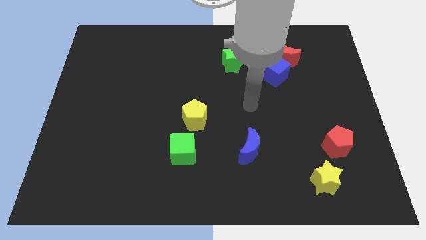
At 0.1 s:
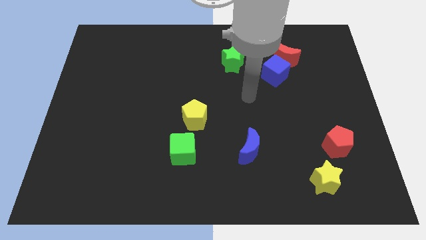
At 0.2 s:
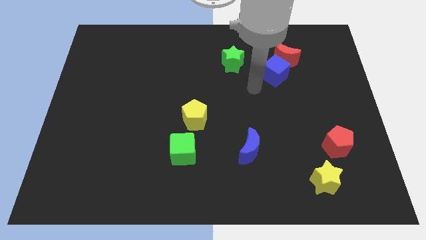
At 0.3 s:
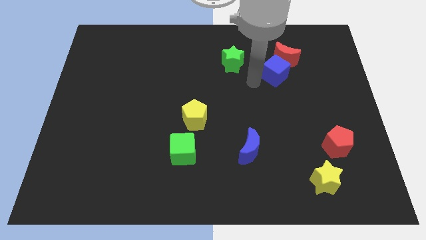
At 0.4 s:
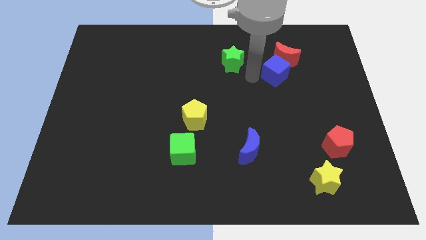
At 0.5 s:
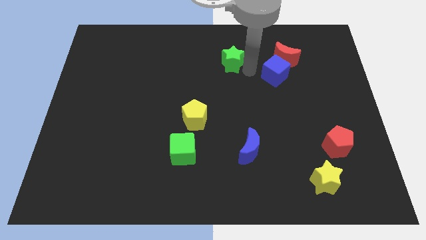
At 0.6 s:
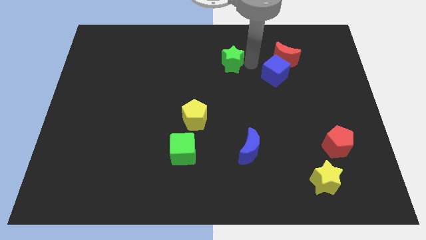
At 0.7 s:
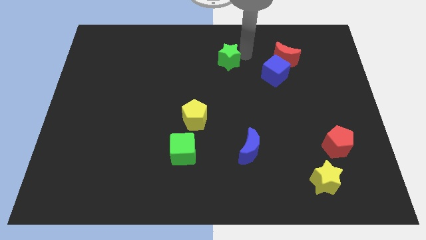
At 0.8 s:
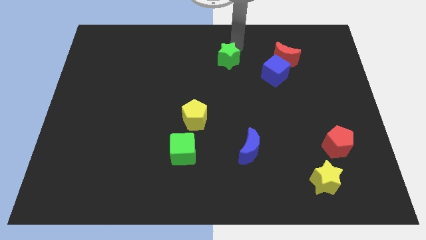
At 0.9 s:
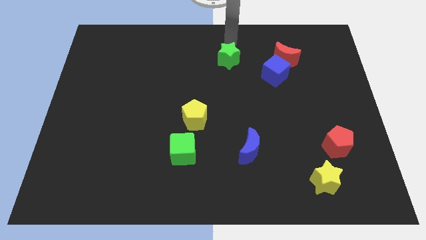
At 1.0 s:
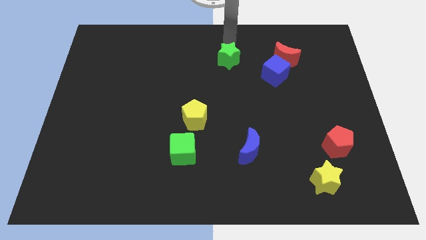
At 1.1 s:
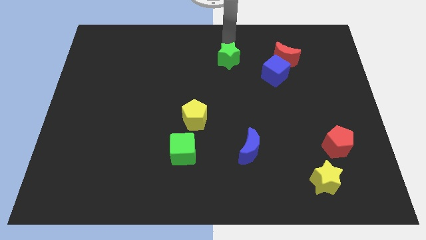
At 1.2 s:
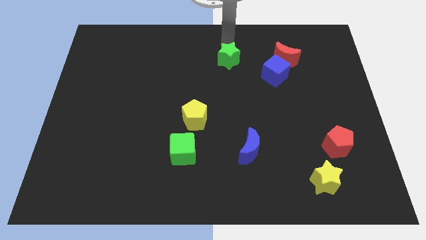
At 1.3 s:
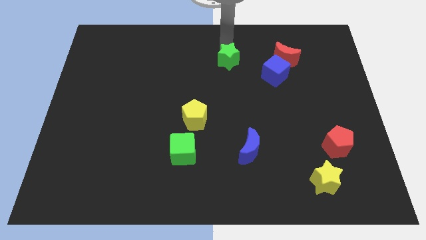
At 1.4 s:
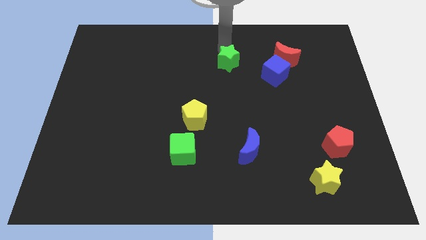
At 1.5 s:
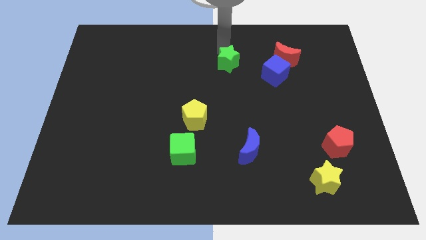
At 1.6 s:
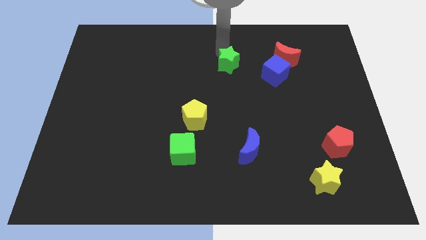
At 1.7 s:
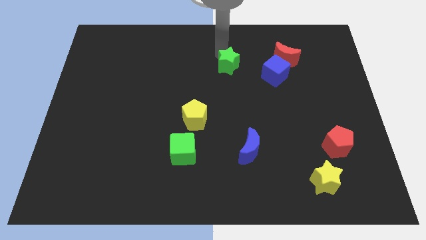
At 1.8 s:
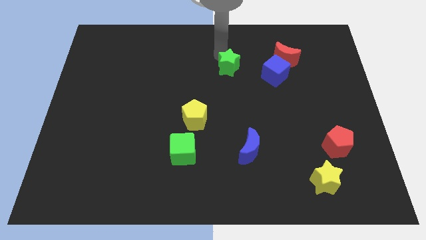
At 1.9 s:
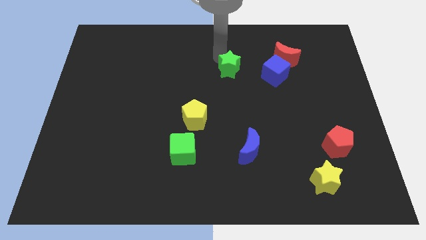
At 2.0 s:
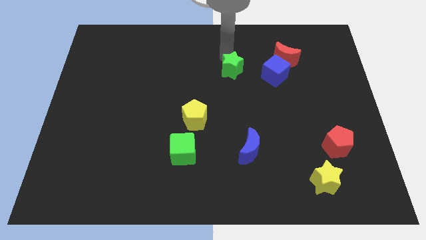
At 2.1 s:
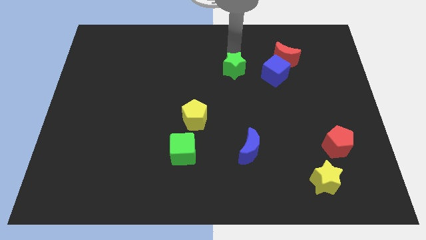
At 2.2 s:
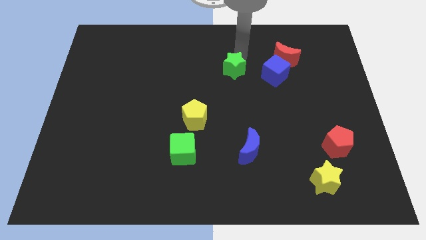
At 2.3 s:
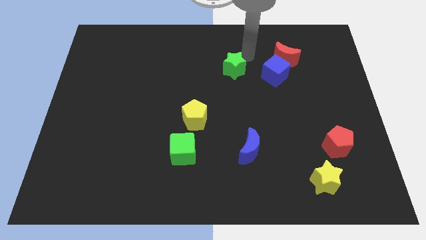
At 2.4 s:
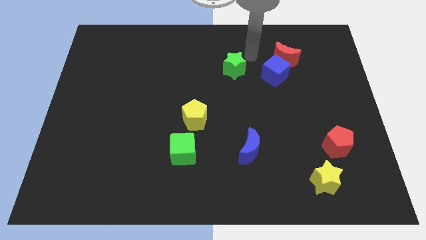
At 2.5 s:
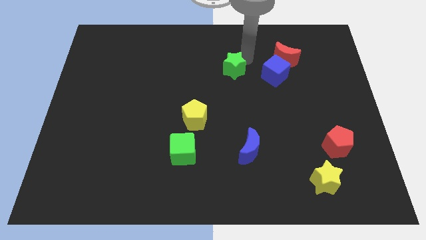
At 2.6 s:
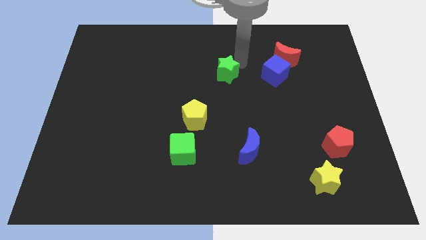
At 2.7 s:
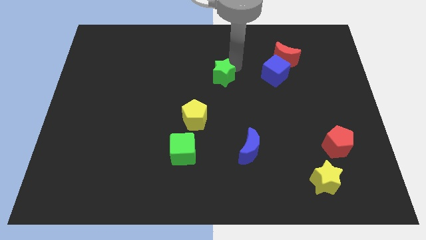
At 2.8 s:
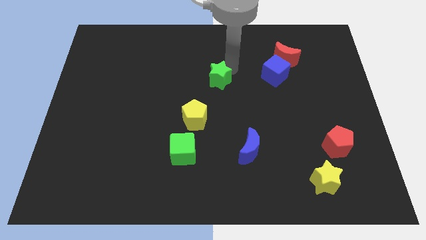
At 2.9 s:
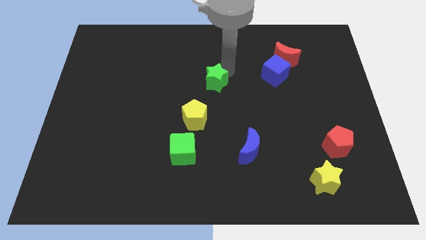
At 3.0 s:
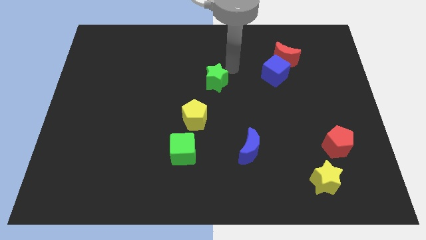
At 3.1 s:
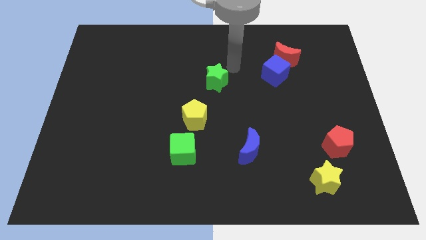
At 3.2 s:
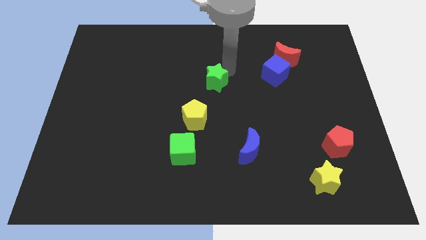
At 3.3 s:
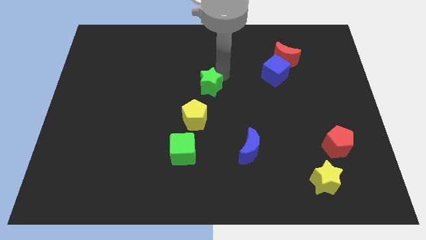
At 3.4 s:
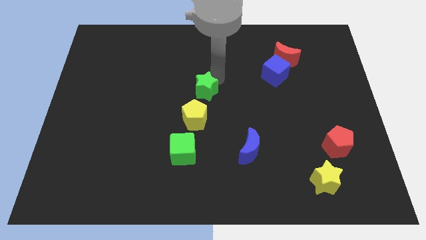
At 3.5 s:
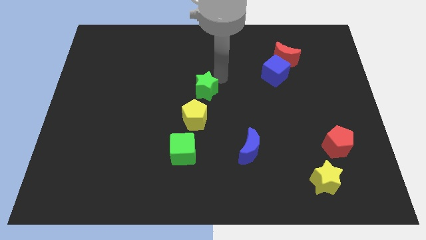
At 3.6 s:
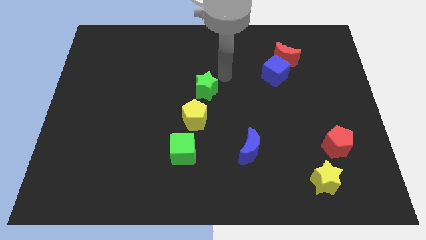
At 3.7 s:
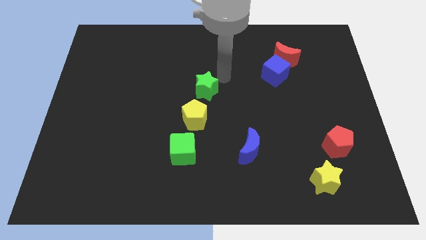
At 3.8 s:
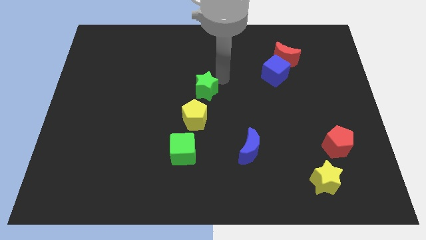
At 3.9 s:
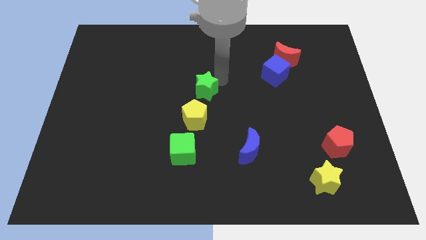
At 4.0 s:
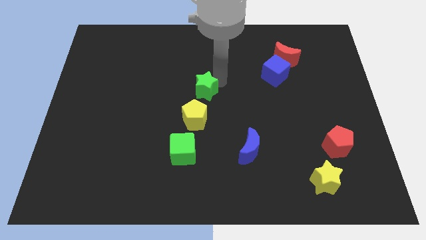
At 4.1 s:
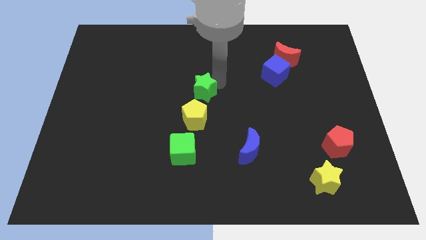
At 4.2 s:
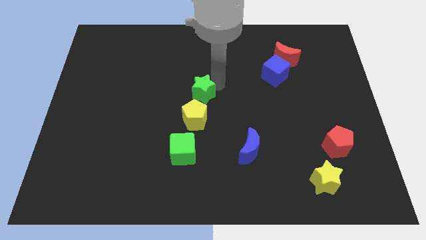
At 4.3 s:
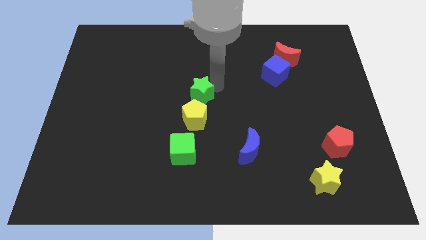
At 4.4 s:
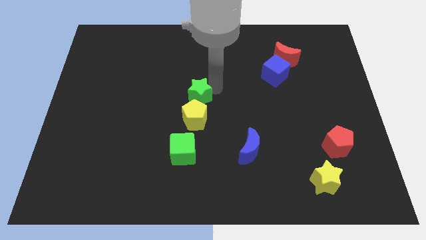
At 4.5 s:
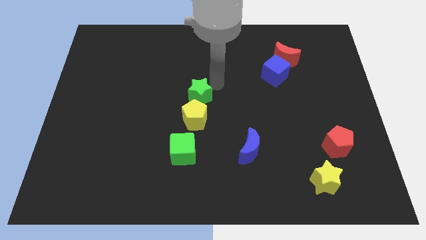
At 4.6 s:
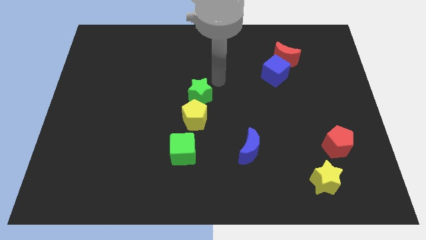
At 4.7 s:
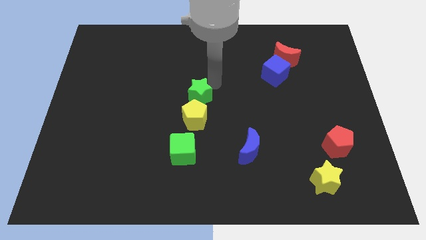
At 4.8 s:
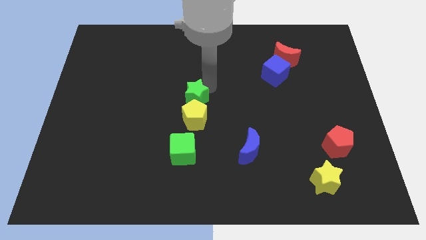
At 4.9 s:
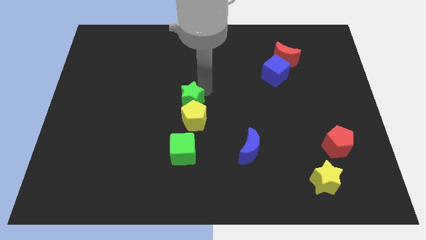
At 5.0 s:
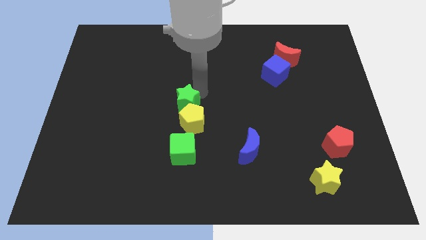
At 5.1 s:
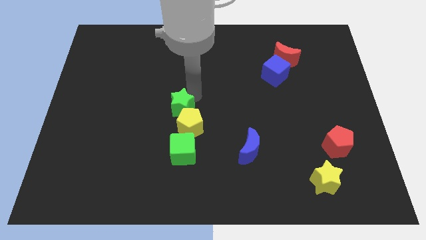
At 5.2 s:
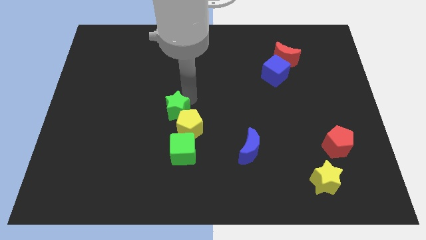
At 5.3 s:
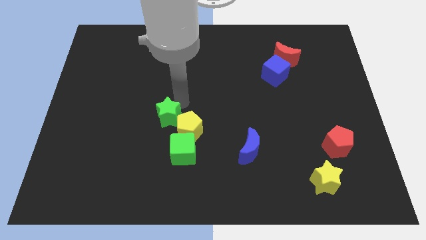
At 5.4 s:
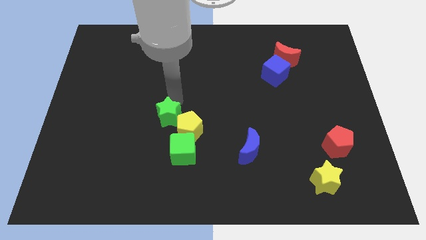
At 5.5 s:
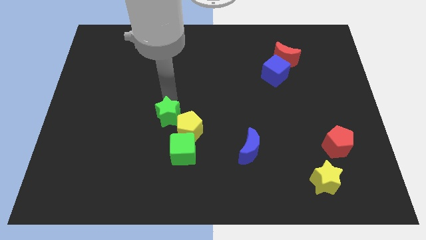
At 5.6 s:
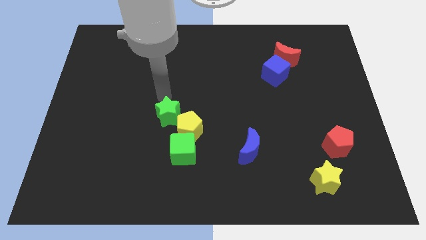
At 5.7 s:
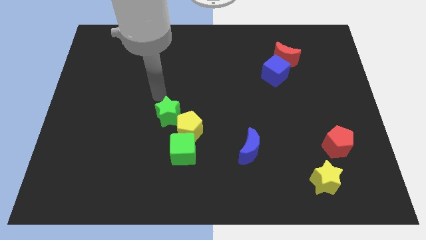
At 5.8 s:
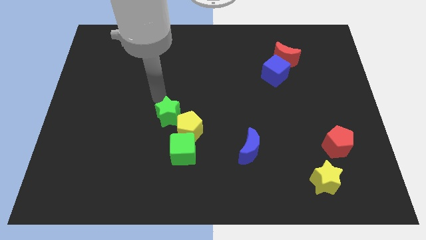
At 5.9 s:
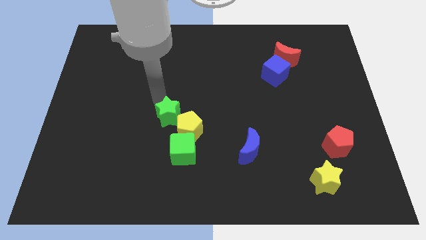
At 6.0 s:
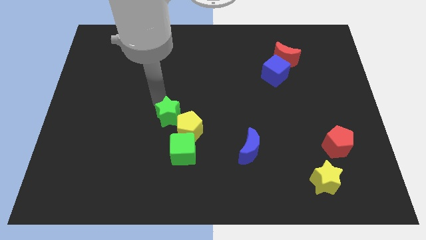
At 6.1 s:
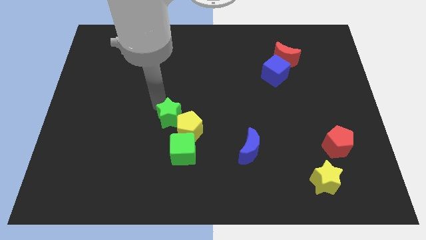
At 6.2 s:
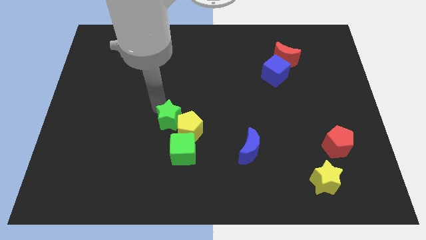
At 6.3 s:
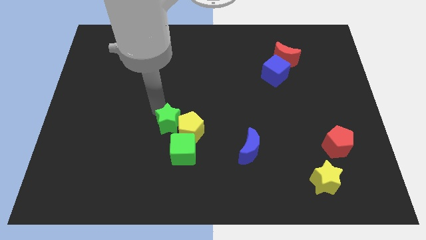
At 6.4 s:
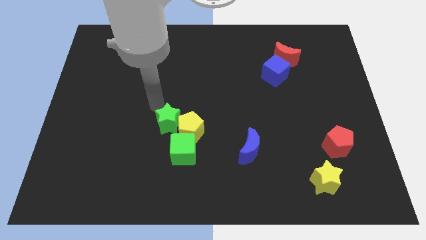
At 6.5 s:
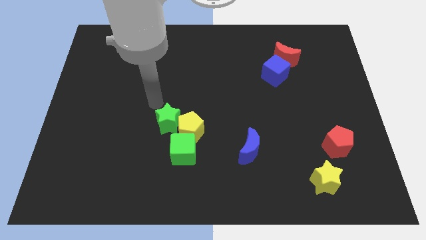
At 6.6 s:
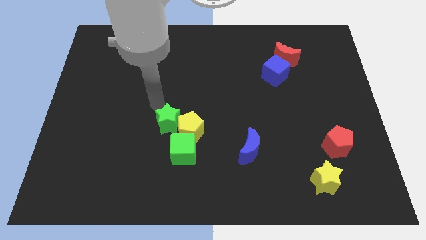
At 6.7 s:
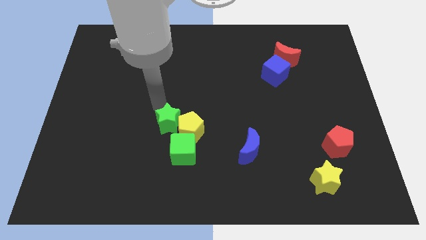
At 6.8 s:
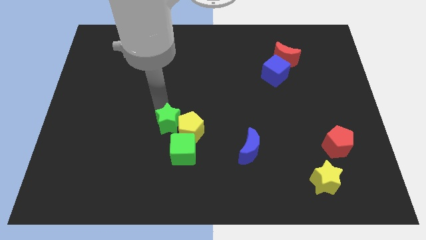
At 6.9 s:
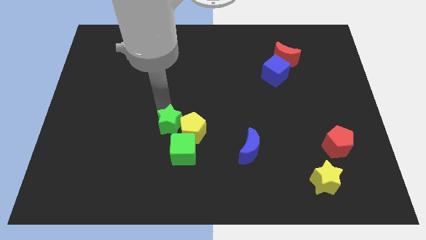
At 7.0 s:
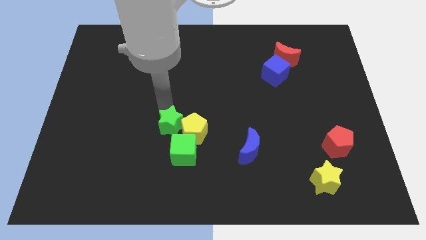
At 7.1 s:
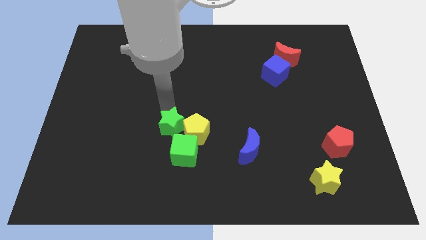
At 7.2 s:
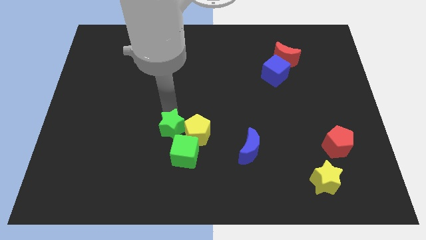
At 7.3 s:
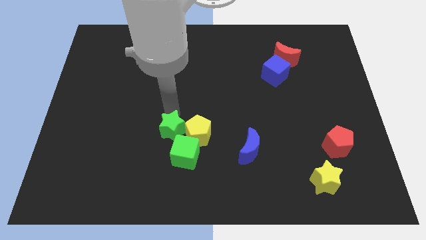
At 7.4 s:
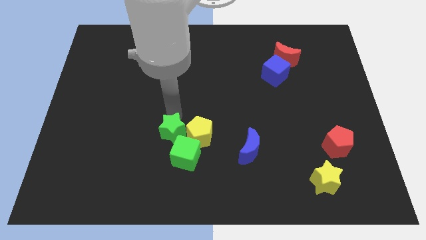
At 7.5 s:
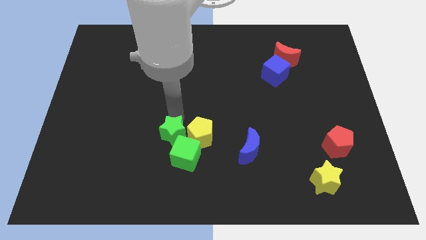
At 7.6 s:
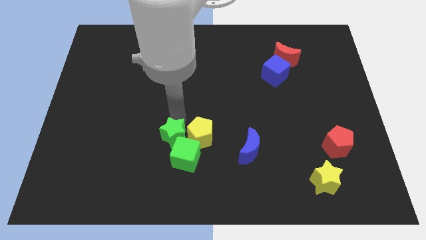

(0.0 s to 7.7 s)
move the green star close to the green cube
